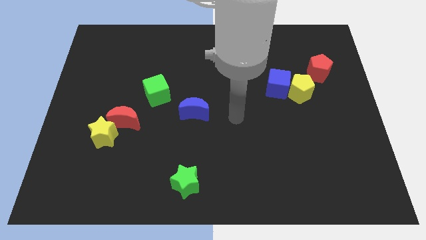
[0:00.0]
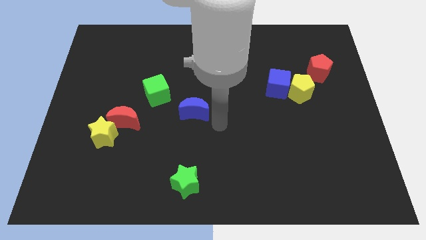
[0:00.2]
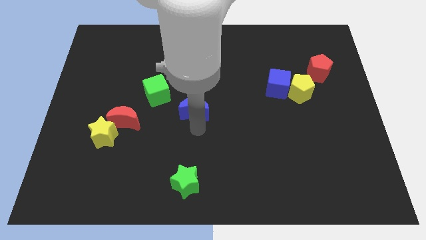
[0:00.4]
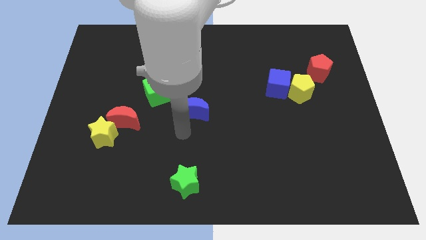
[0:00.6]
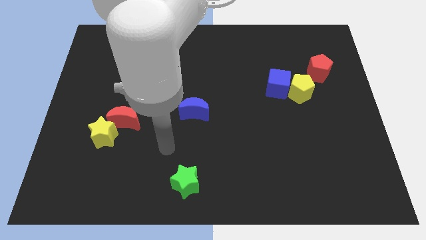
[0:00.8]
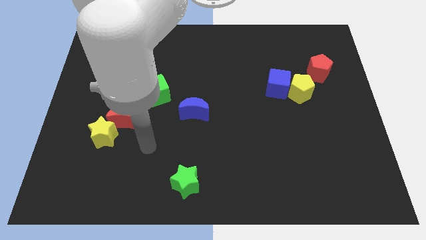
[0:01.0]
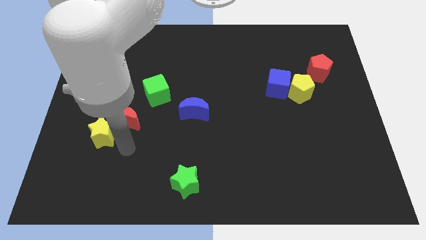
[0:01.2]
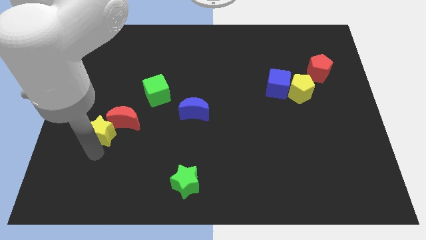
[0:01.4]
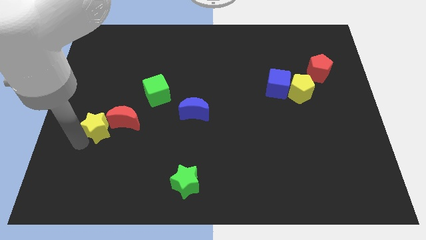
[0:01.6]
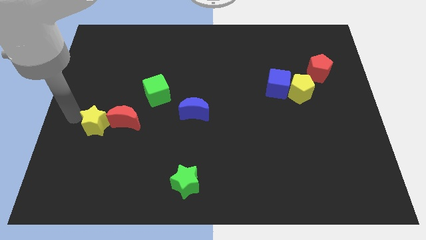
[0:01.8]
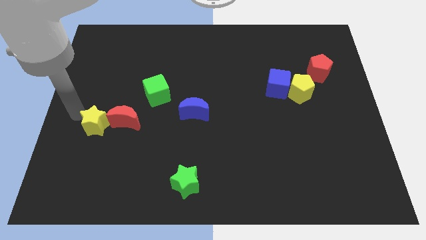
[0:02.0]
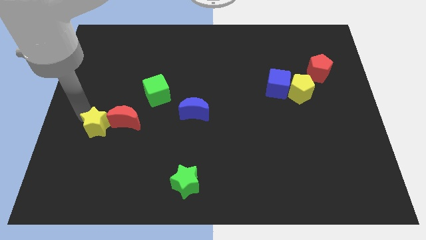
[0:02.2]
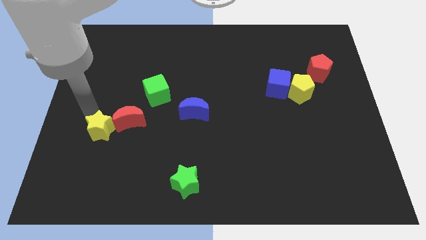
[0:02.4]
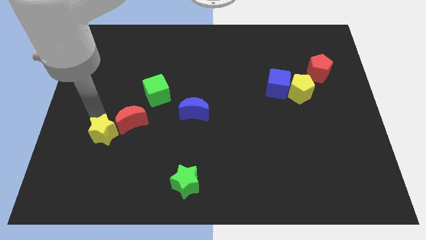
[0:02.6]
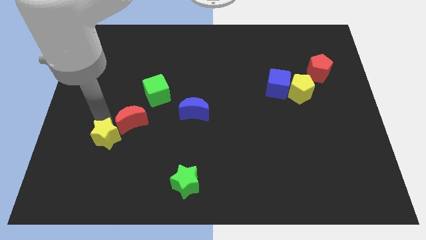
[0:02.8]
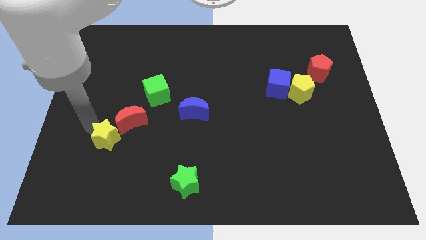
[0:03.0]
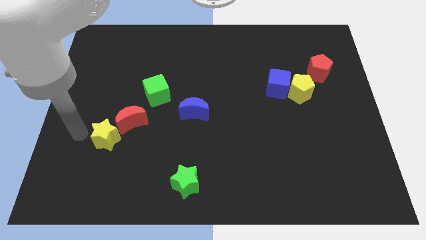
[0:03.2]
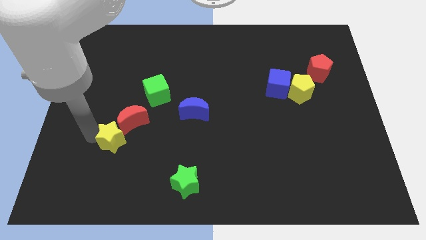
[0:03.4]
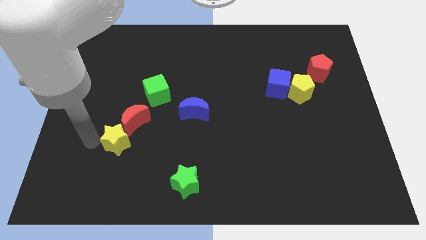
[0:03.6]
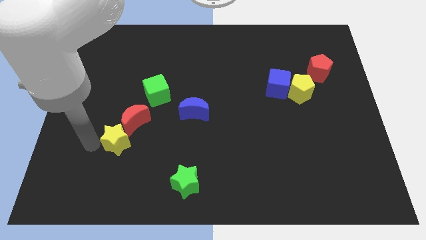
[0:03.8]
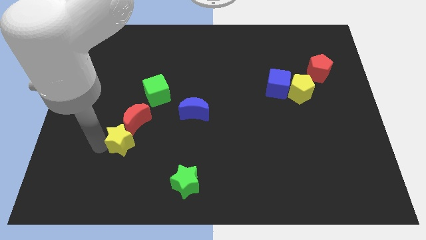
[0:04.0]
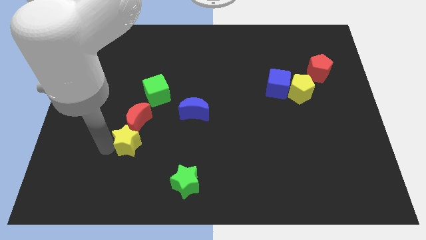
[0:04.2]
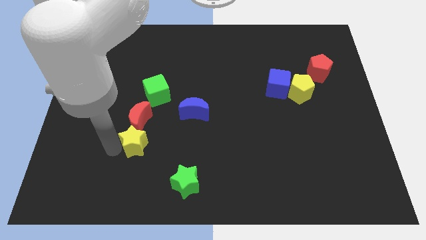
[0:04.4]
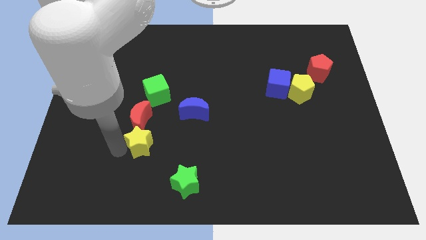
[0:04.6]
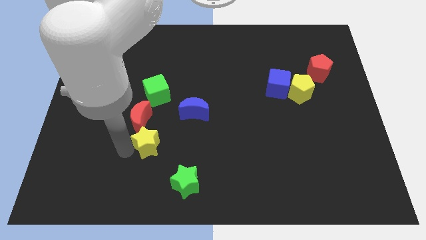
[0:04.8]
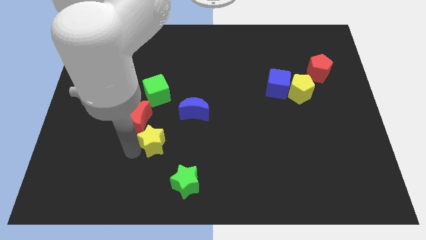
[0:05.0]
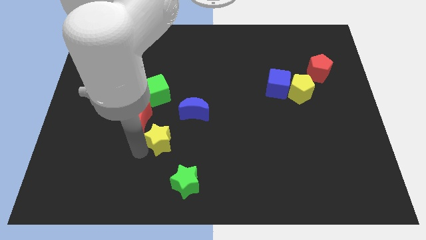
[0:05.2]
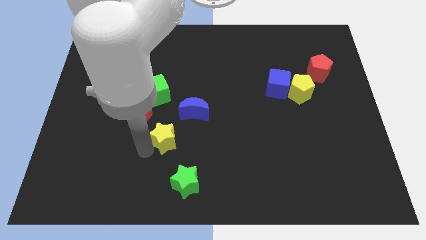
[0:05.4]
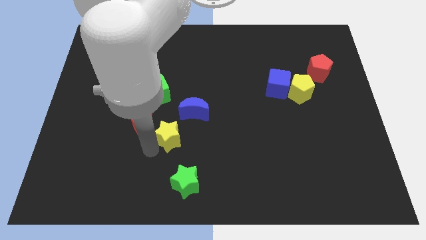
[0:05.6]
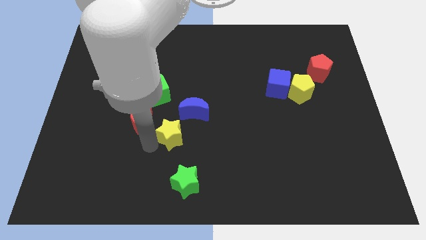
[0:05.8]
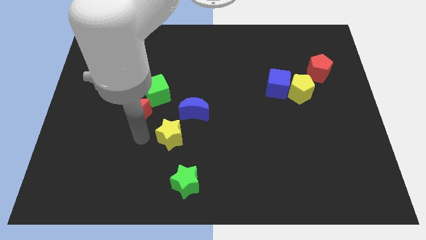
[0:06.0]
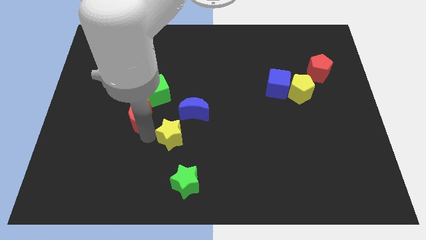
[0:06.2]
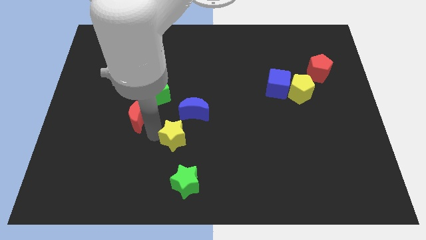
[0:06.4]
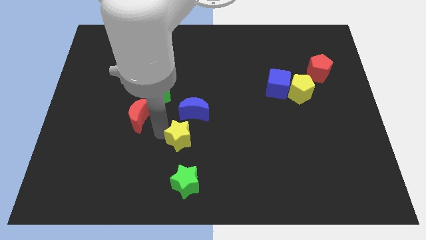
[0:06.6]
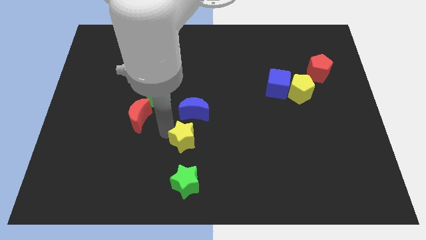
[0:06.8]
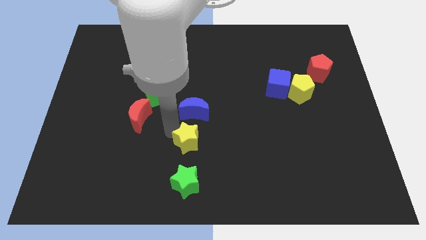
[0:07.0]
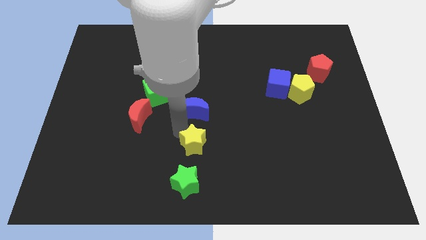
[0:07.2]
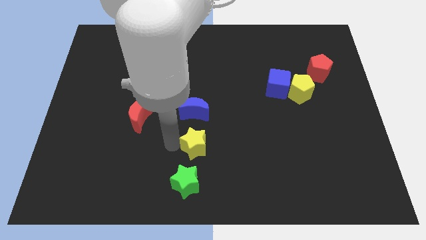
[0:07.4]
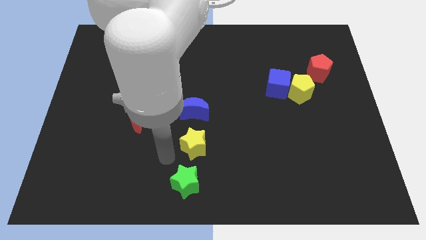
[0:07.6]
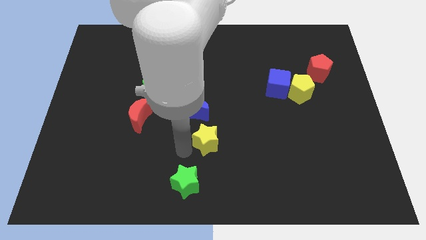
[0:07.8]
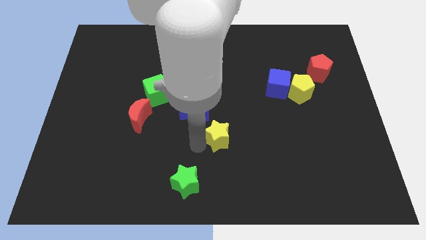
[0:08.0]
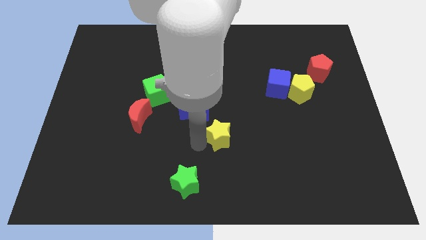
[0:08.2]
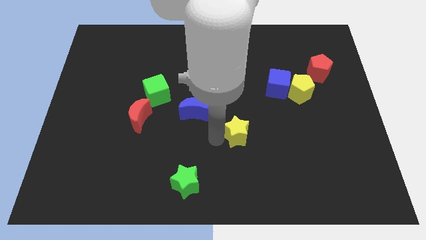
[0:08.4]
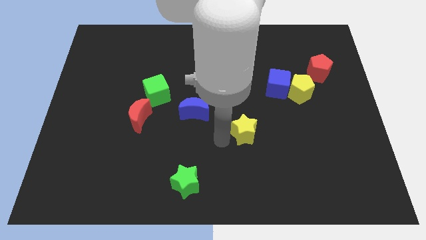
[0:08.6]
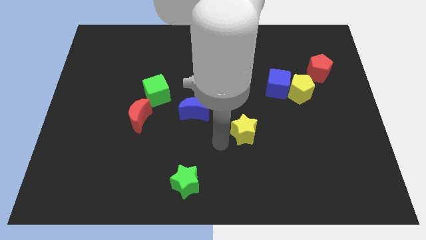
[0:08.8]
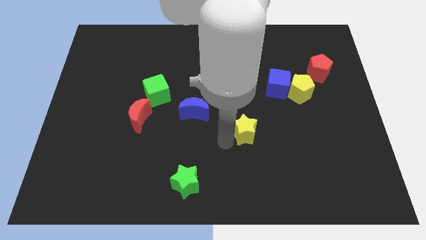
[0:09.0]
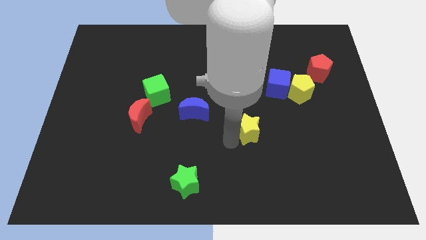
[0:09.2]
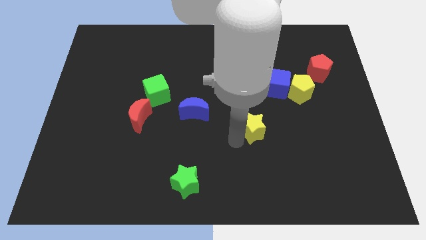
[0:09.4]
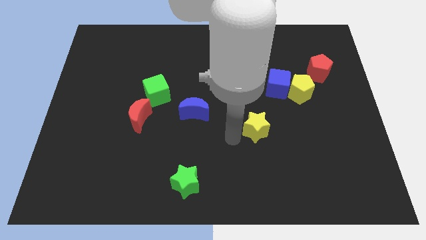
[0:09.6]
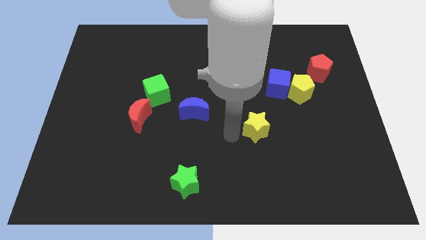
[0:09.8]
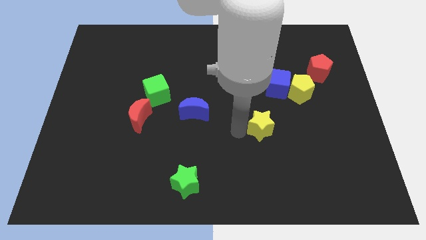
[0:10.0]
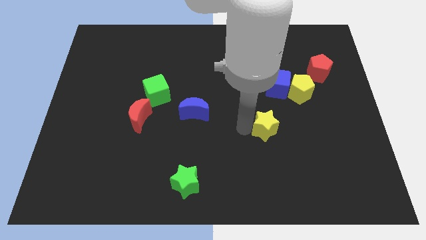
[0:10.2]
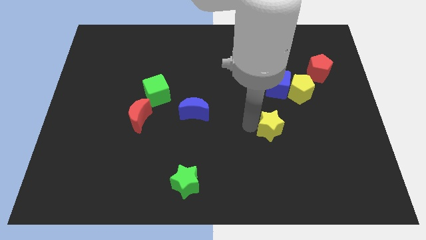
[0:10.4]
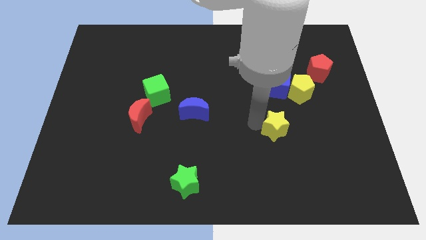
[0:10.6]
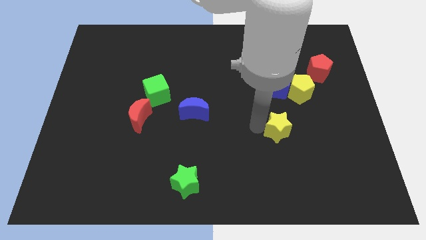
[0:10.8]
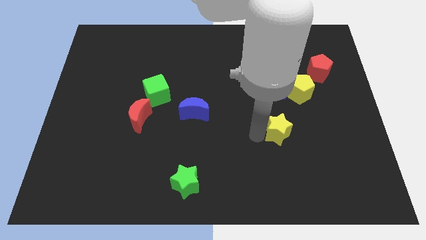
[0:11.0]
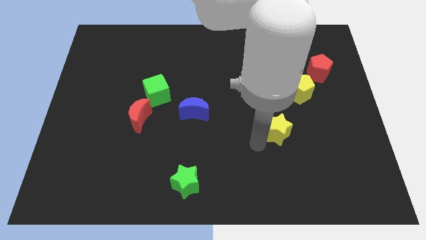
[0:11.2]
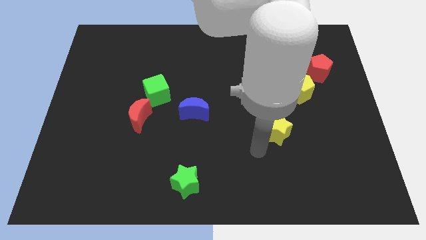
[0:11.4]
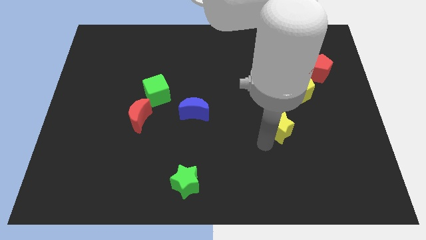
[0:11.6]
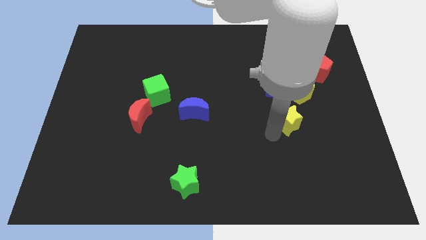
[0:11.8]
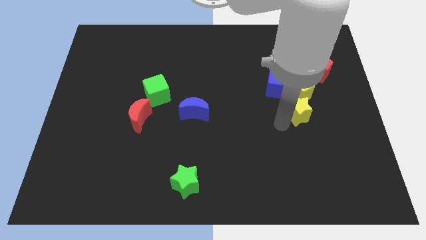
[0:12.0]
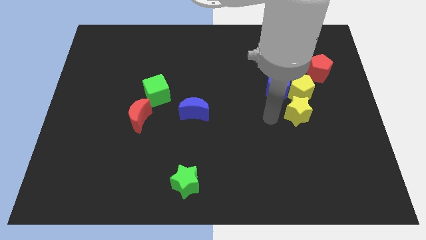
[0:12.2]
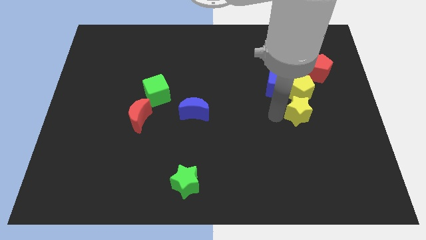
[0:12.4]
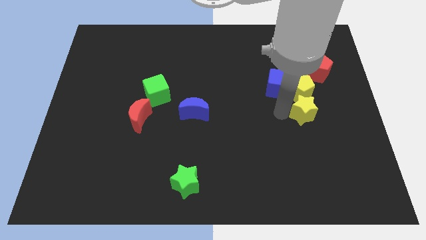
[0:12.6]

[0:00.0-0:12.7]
push the yellow star to the bottom right of the yellow pentagon
